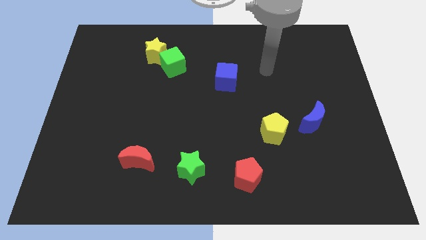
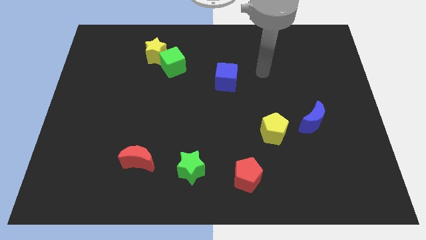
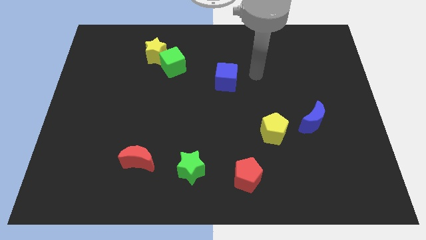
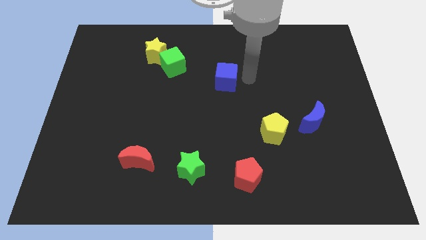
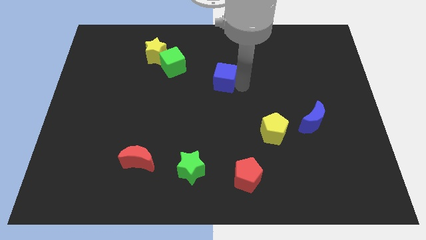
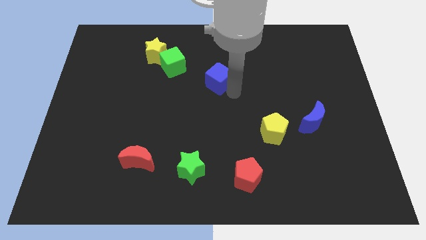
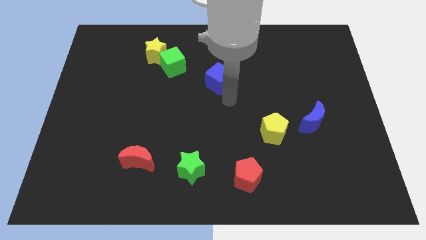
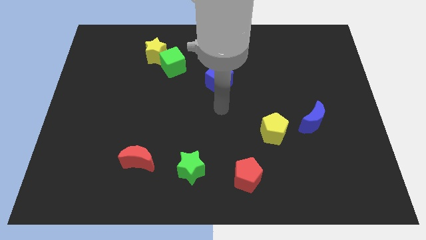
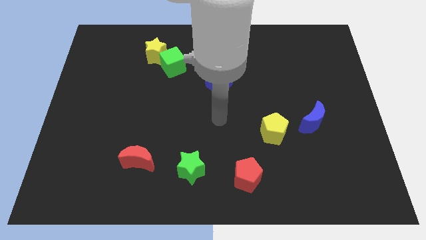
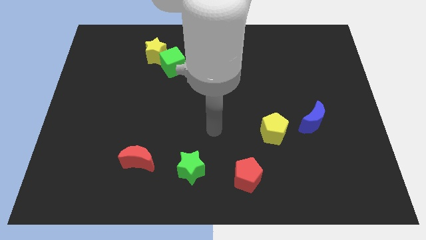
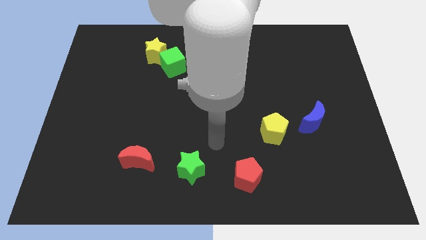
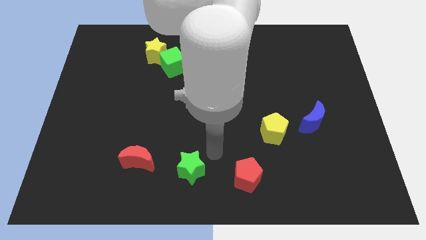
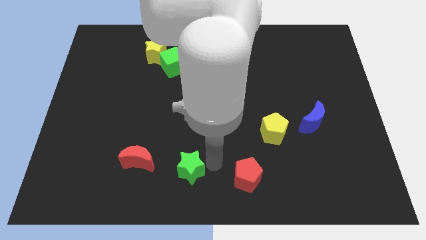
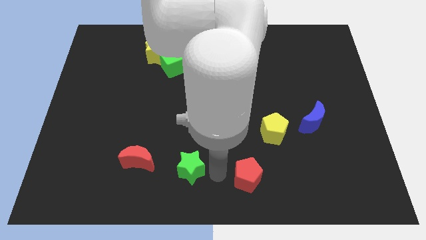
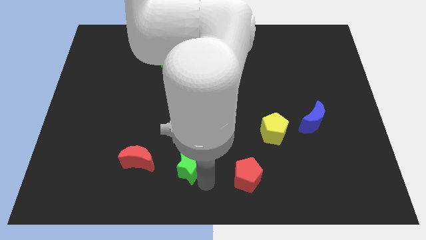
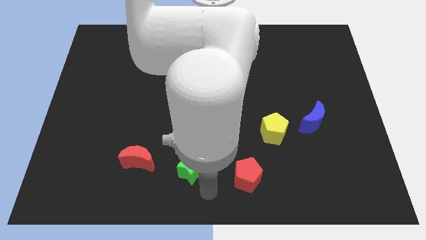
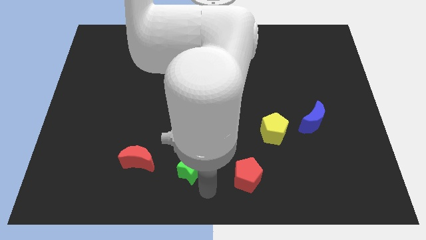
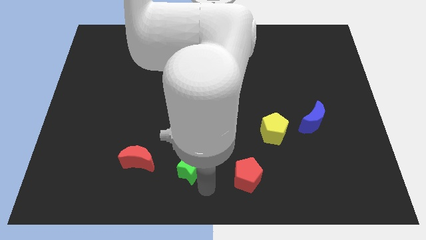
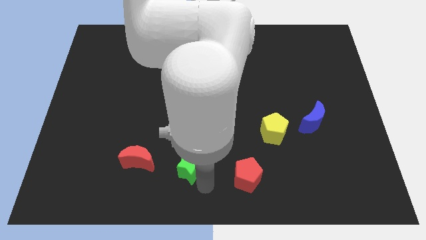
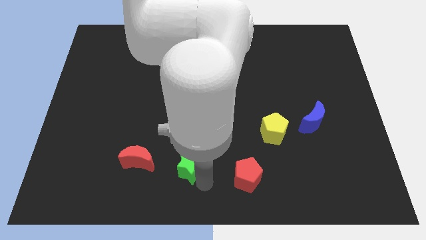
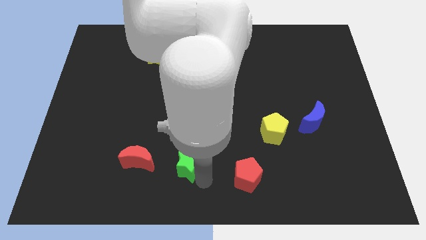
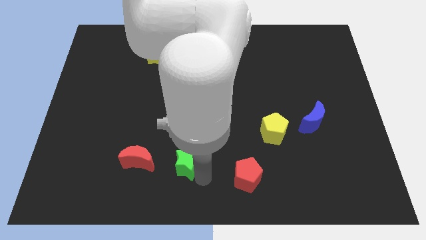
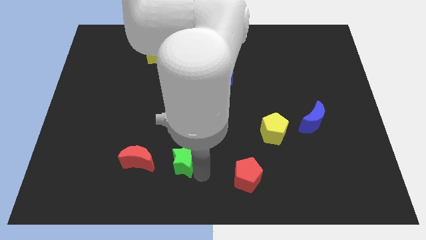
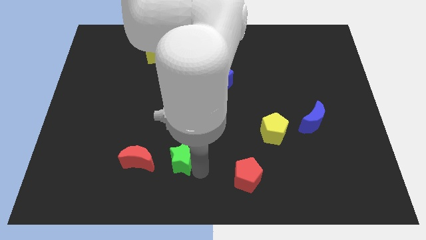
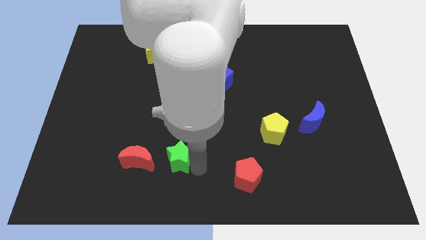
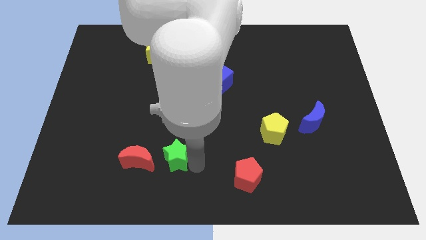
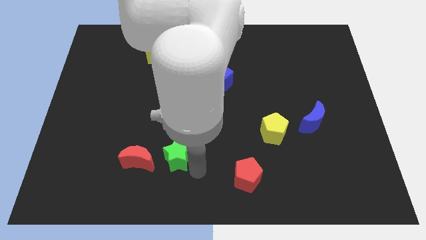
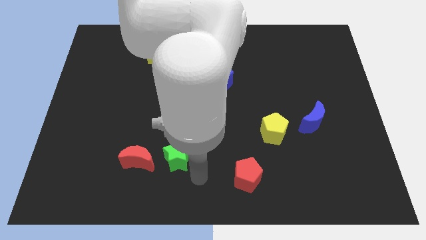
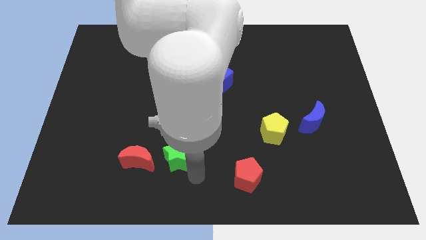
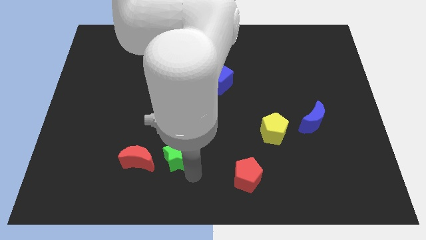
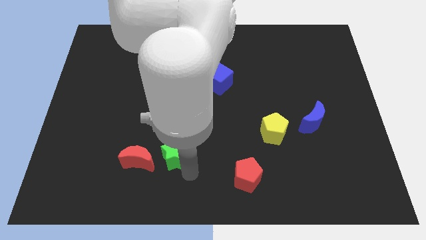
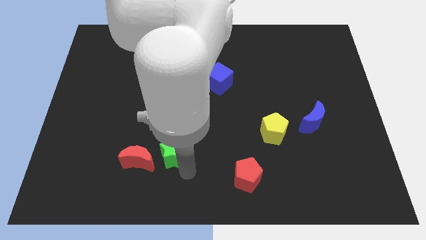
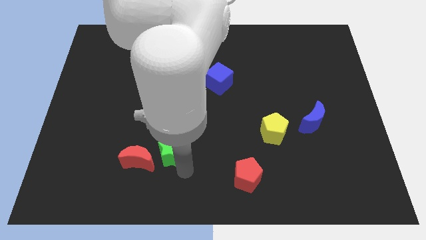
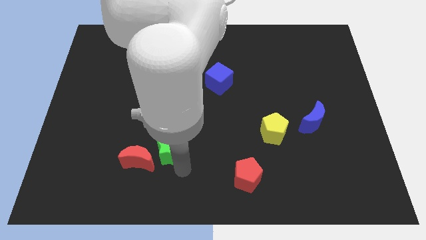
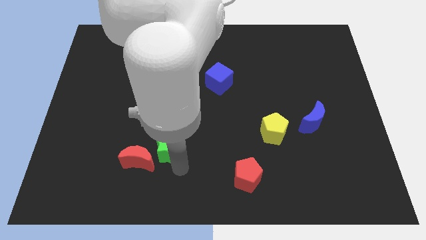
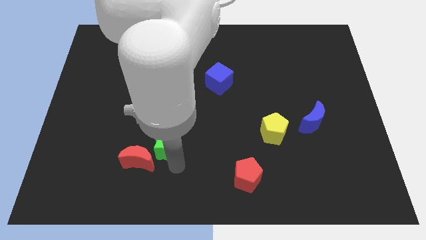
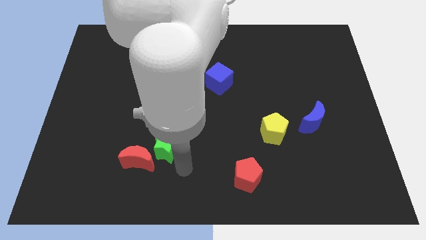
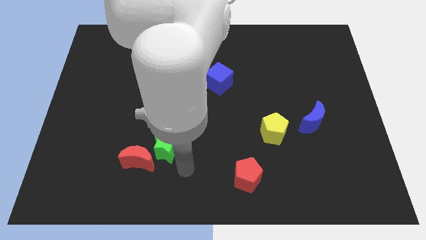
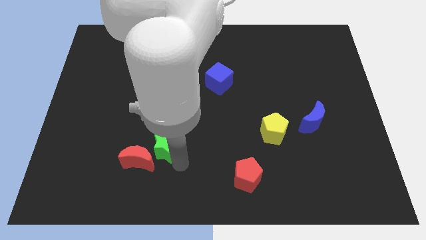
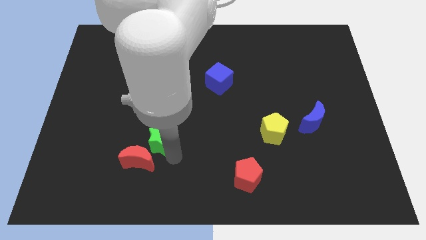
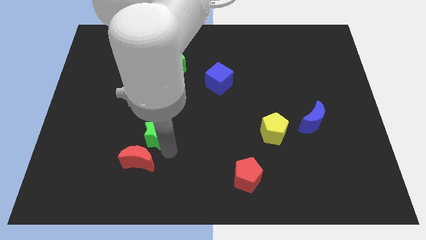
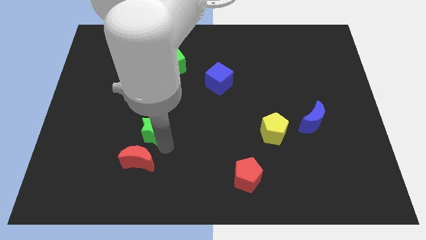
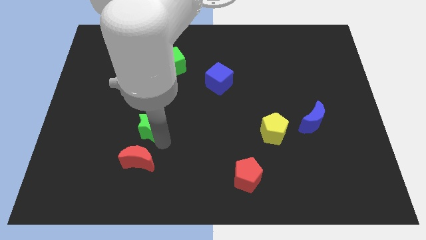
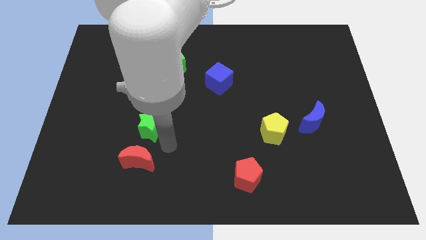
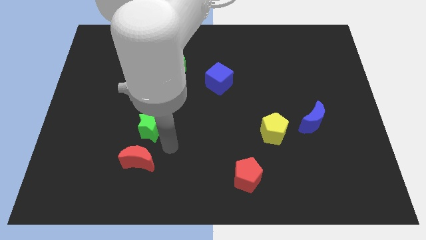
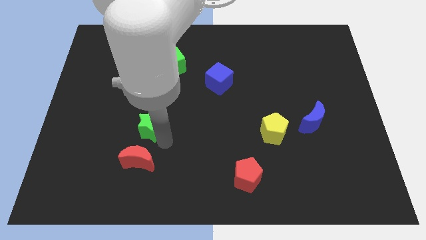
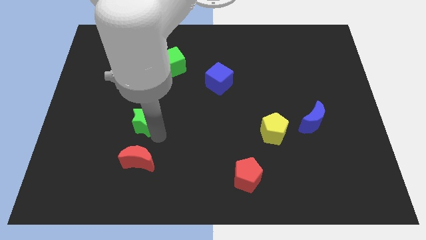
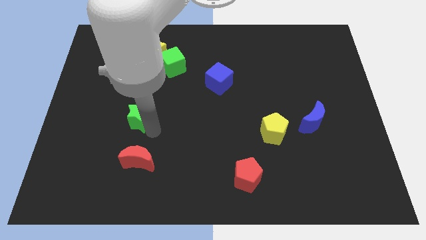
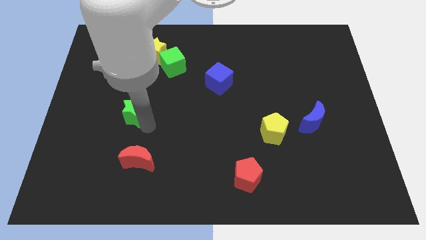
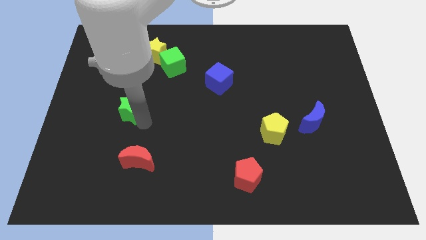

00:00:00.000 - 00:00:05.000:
push the green star upwards and left diagonally

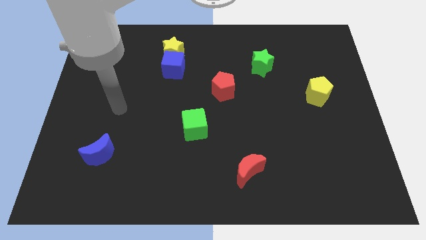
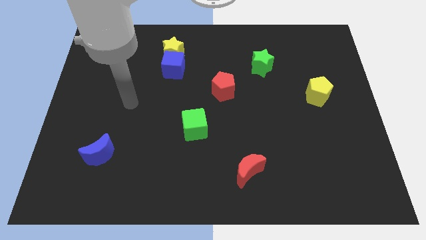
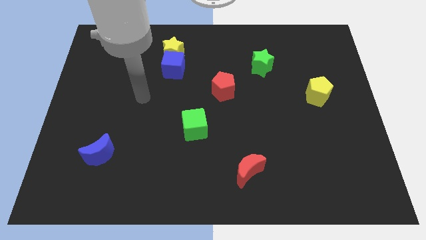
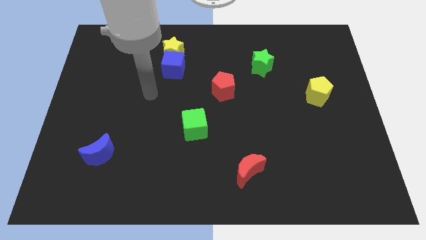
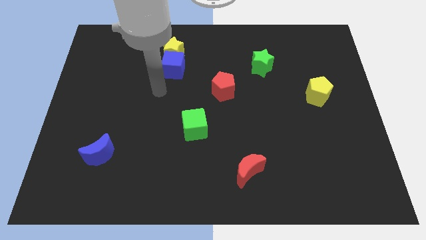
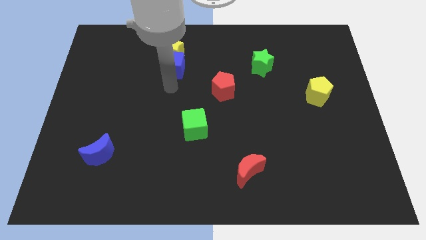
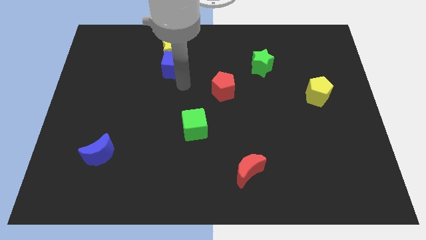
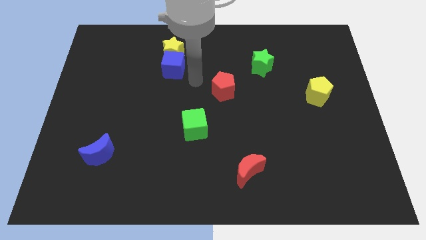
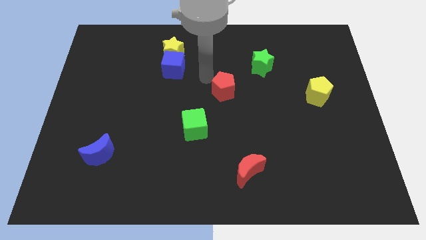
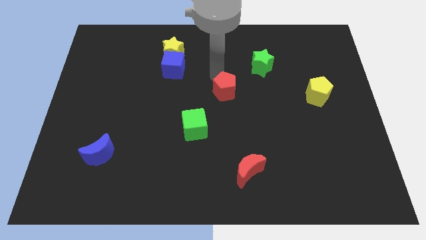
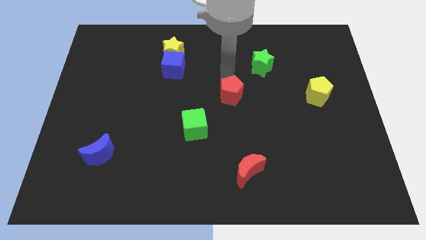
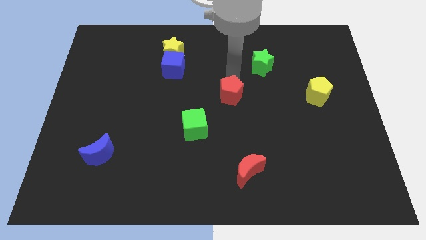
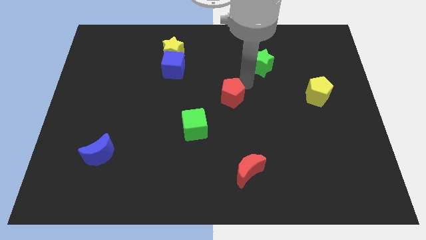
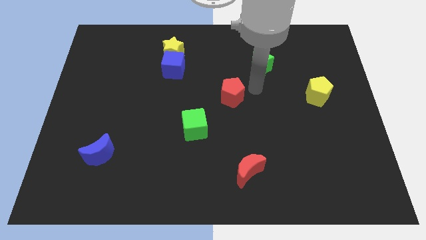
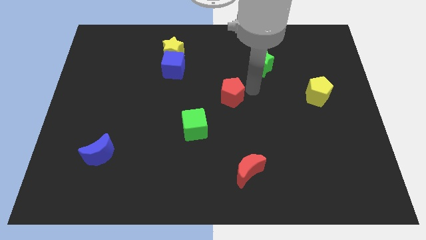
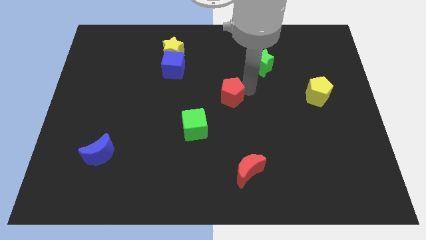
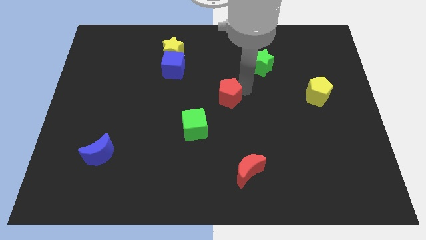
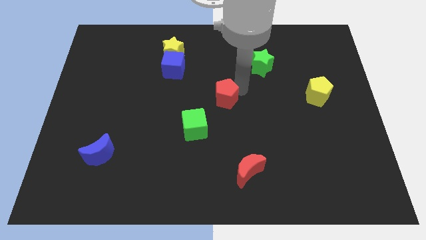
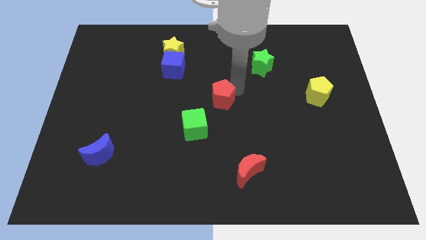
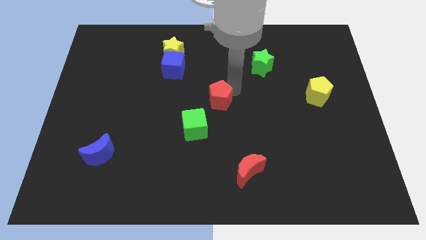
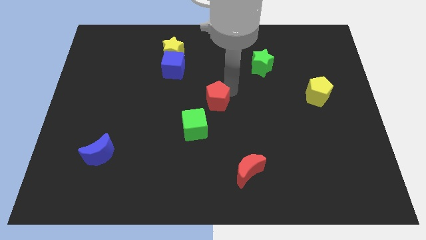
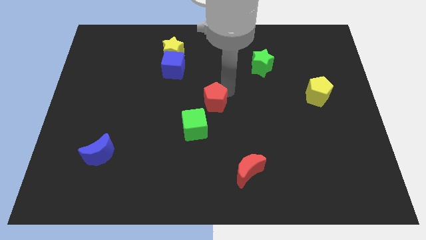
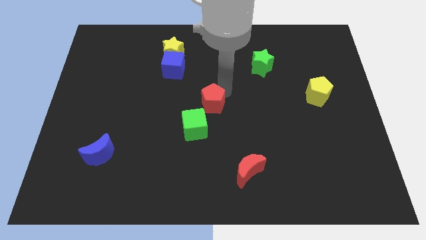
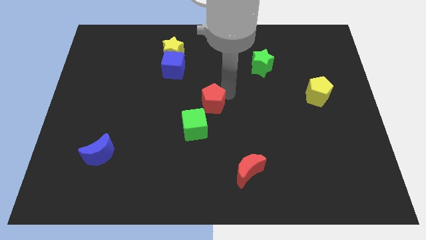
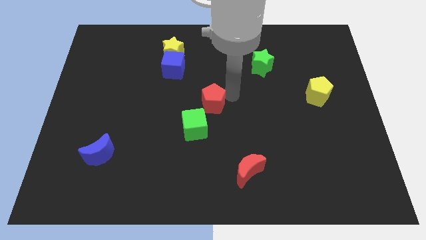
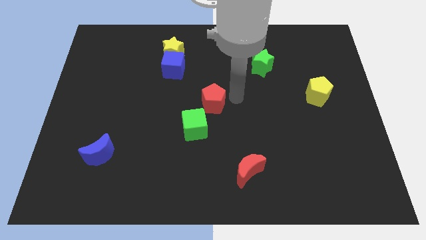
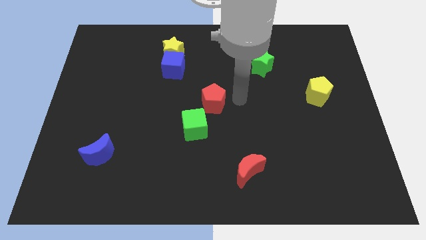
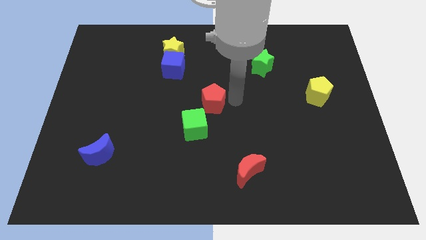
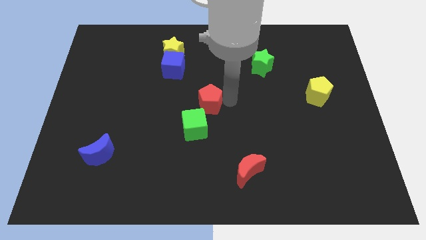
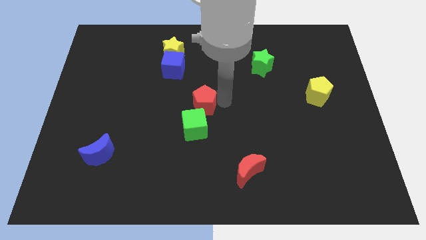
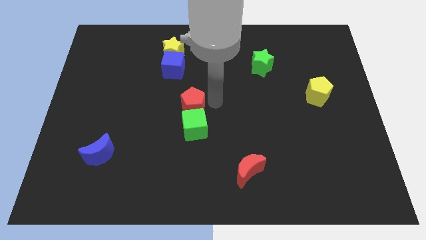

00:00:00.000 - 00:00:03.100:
push the red pentagon diagonally down and left a bit

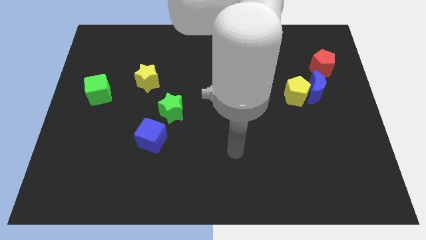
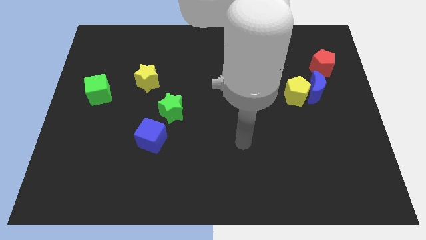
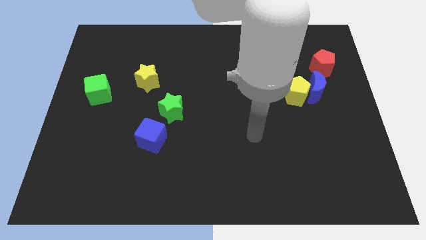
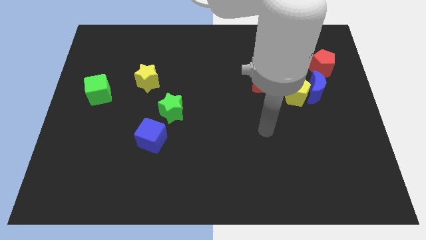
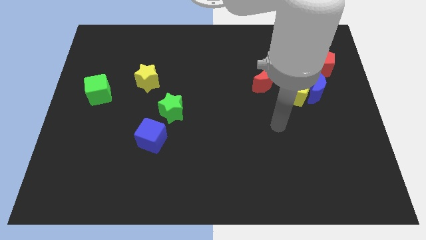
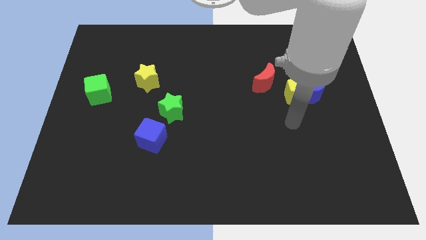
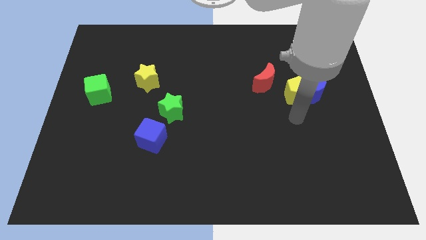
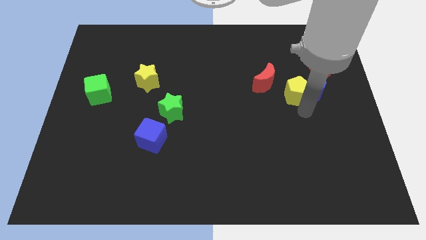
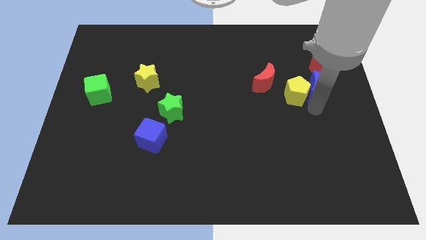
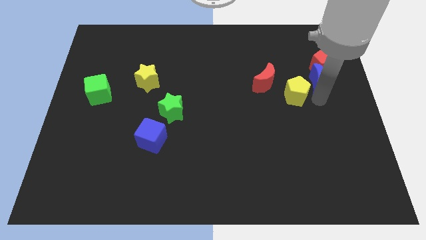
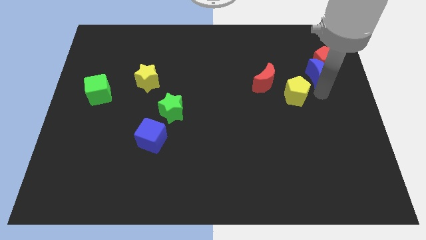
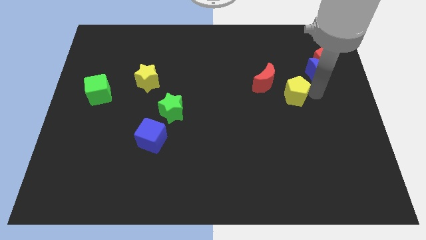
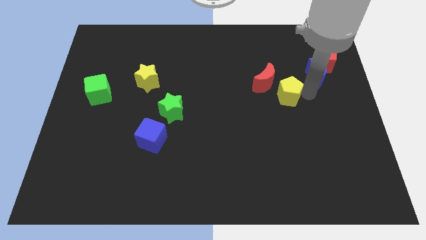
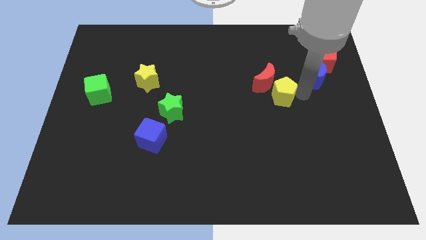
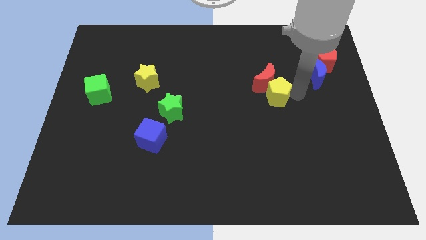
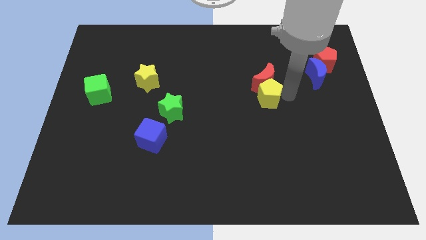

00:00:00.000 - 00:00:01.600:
move the yellow pentagon a little to the left
